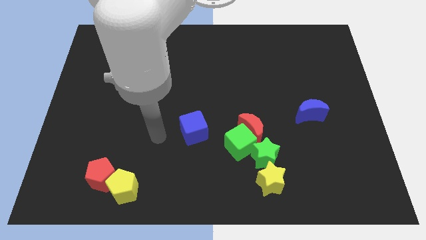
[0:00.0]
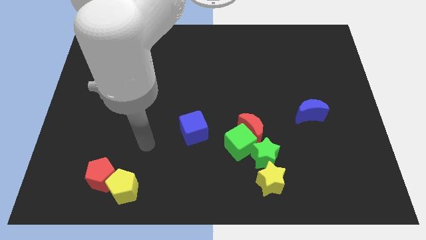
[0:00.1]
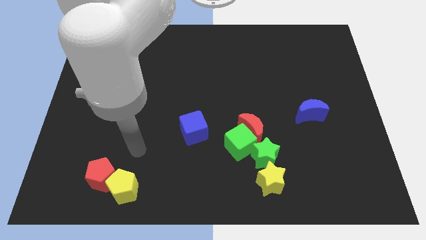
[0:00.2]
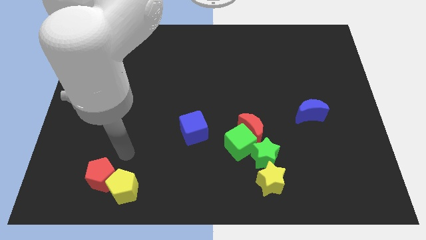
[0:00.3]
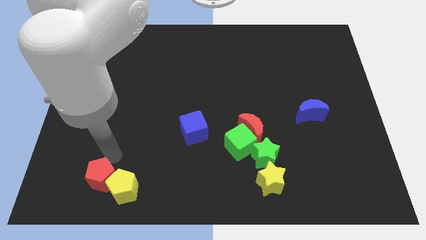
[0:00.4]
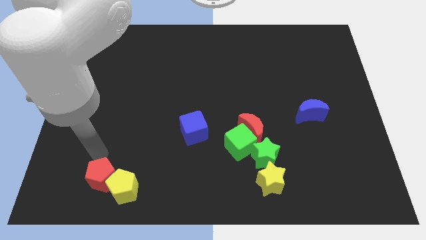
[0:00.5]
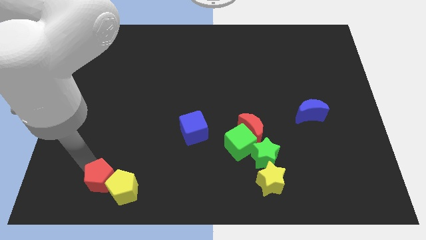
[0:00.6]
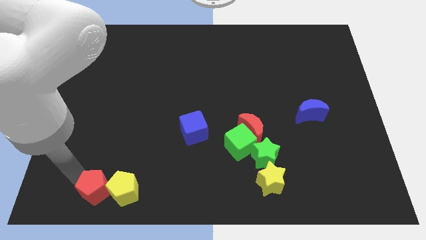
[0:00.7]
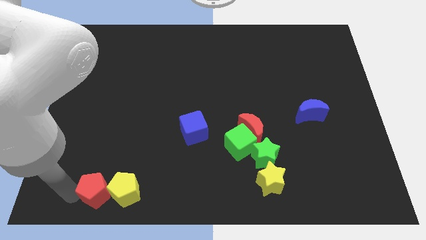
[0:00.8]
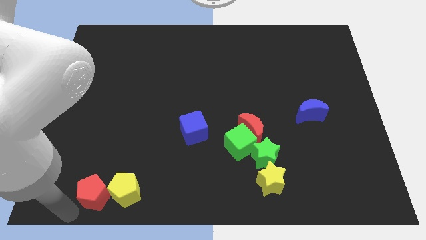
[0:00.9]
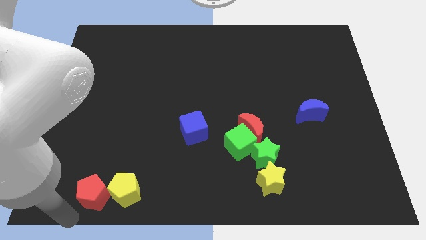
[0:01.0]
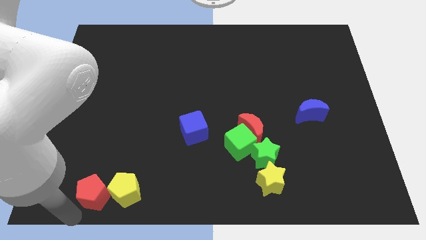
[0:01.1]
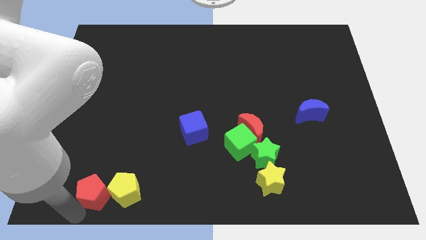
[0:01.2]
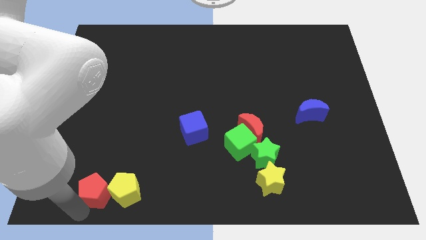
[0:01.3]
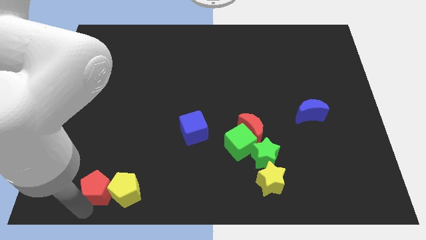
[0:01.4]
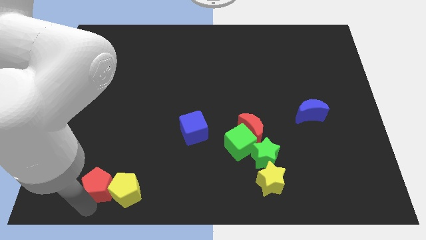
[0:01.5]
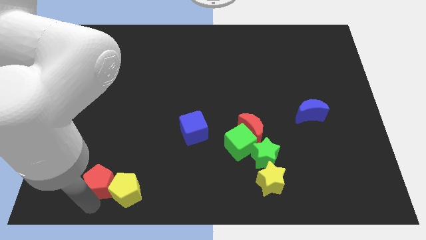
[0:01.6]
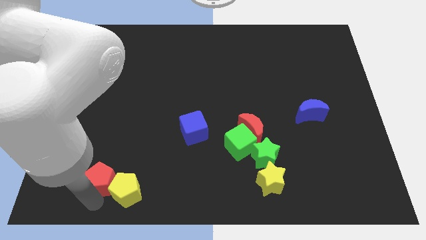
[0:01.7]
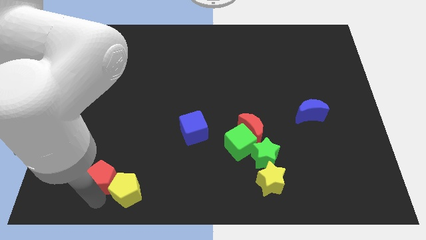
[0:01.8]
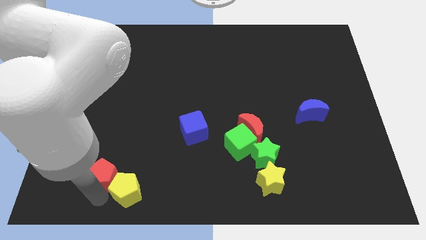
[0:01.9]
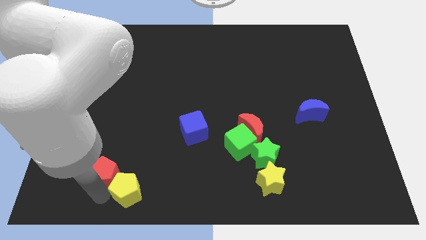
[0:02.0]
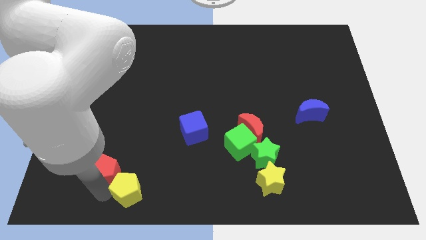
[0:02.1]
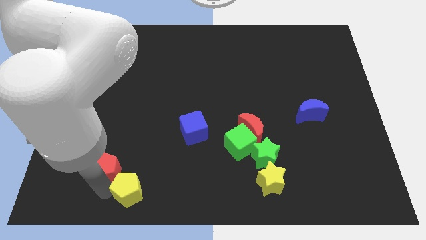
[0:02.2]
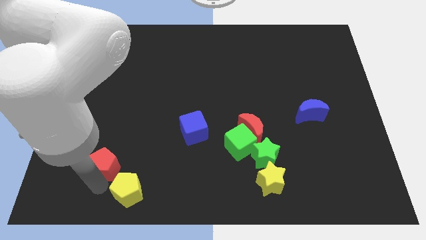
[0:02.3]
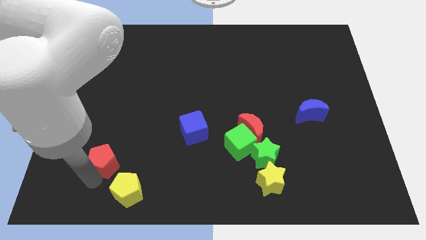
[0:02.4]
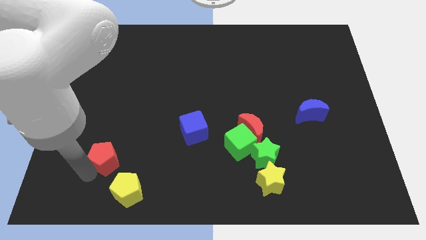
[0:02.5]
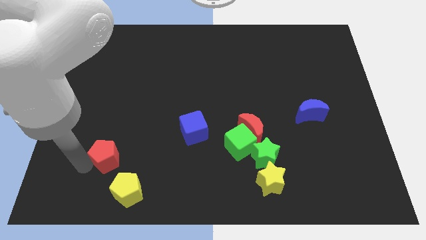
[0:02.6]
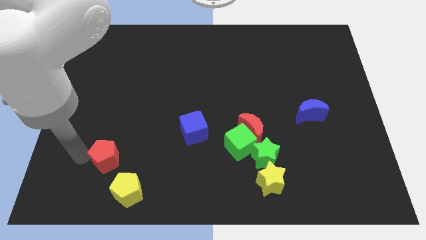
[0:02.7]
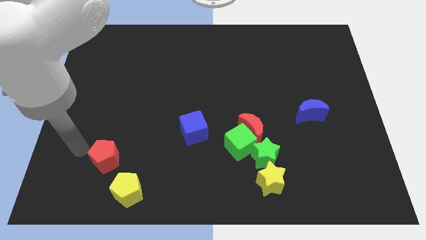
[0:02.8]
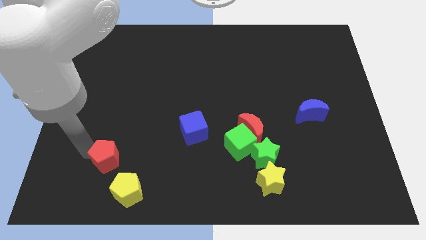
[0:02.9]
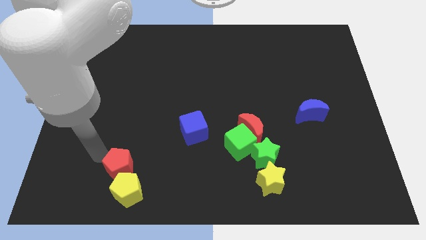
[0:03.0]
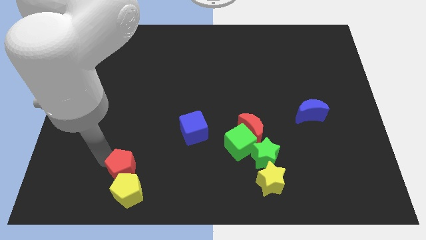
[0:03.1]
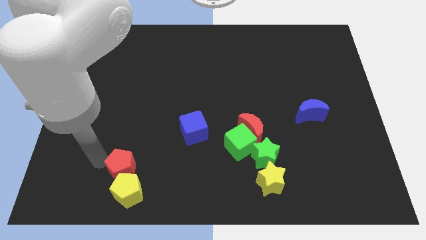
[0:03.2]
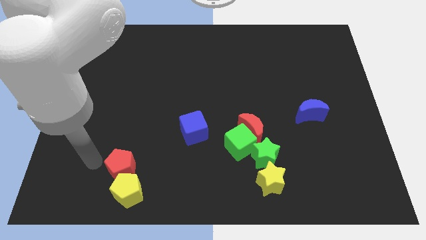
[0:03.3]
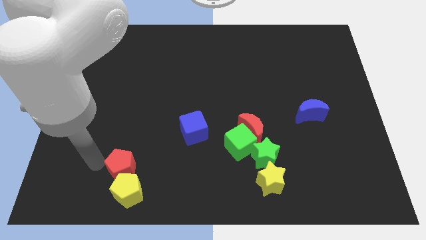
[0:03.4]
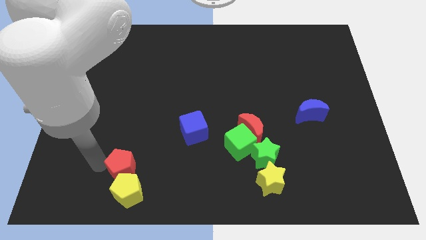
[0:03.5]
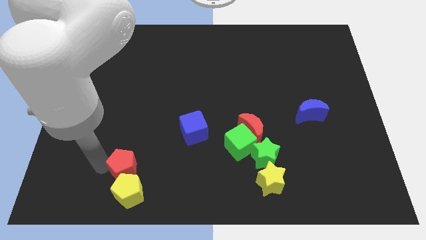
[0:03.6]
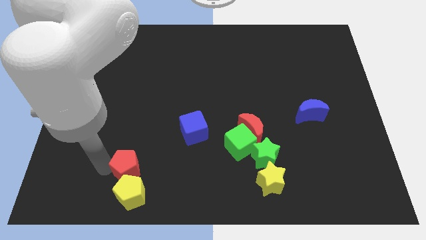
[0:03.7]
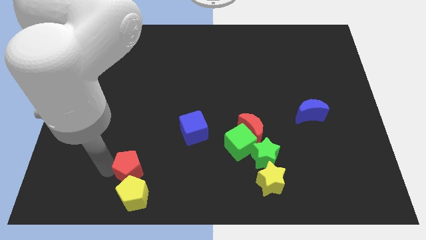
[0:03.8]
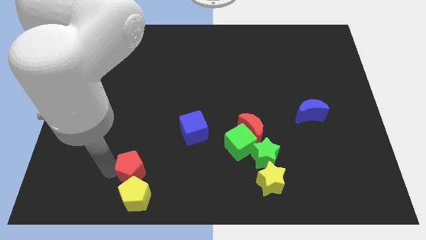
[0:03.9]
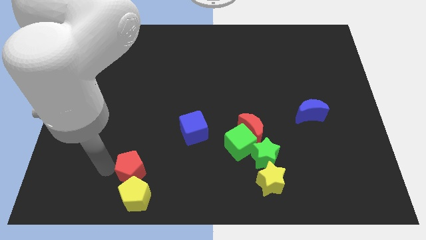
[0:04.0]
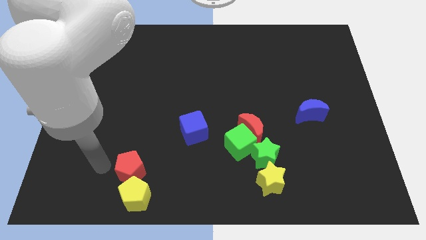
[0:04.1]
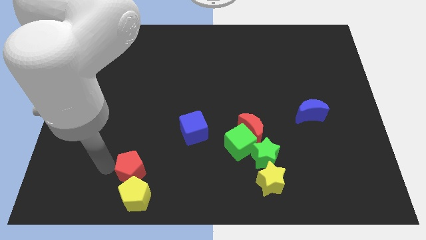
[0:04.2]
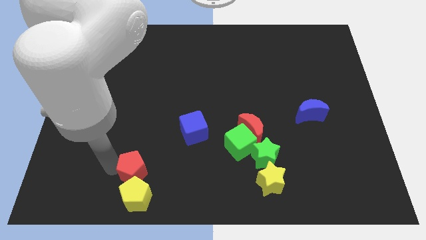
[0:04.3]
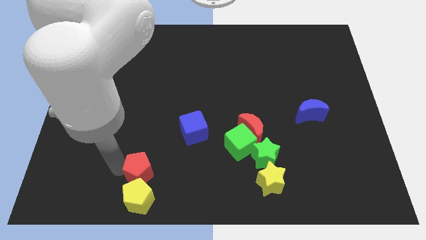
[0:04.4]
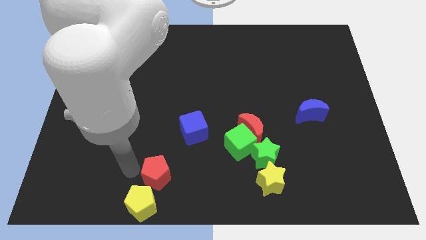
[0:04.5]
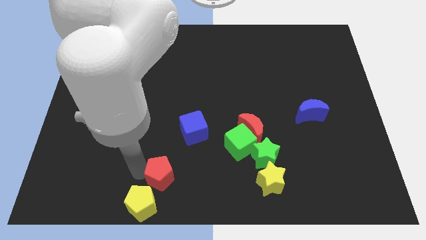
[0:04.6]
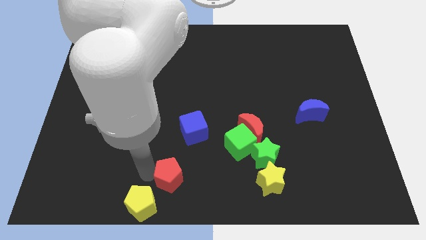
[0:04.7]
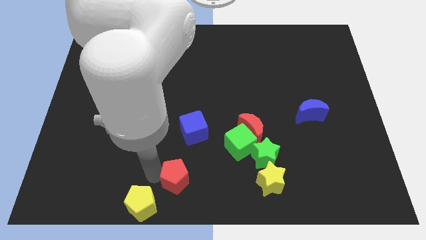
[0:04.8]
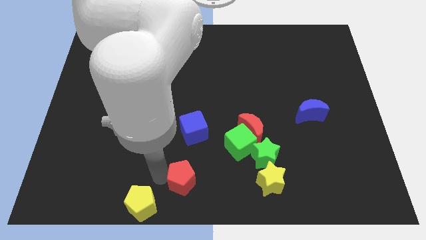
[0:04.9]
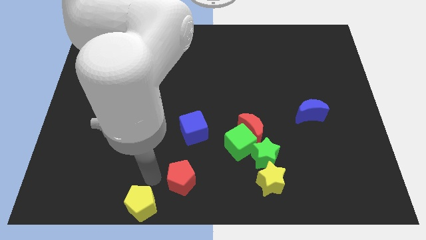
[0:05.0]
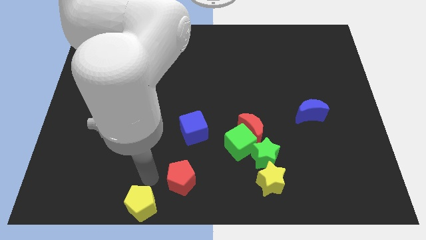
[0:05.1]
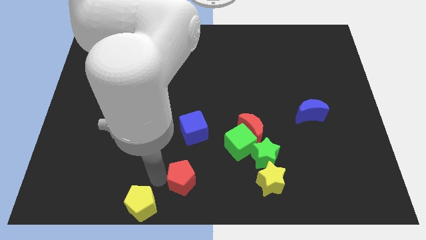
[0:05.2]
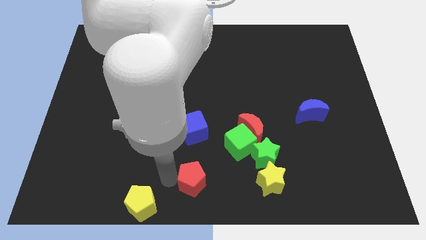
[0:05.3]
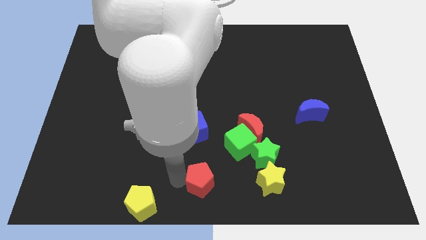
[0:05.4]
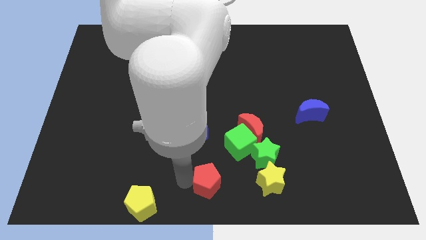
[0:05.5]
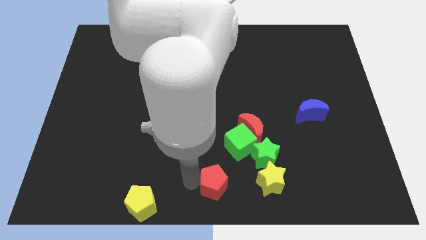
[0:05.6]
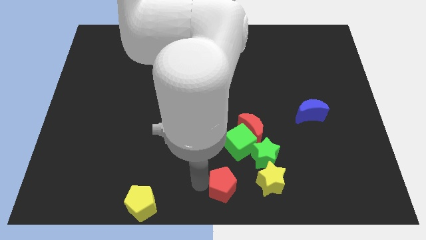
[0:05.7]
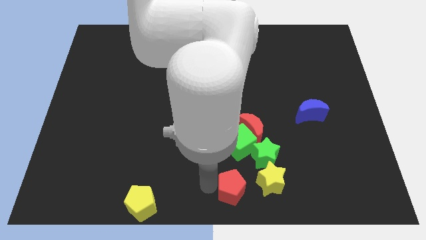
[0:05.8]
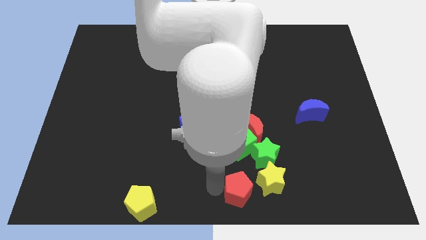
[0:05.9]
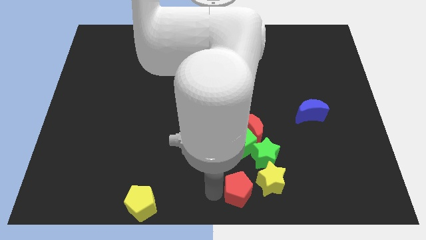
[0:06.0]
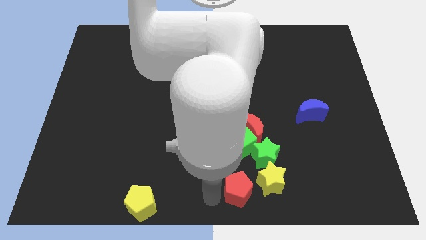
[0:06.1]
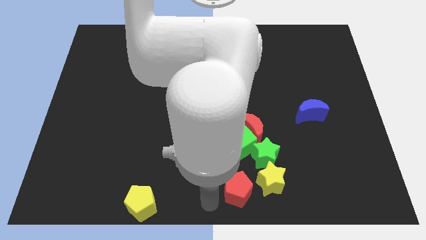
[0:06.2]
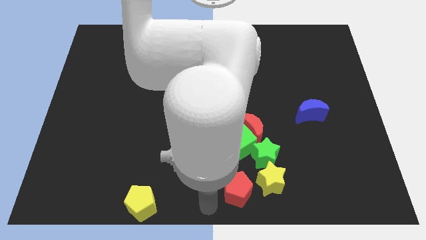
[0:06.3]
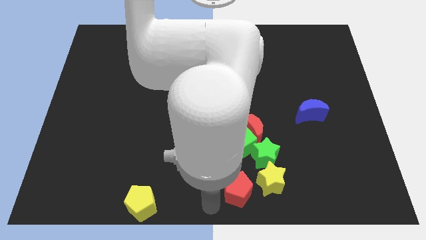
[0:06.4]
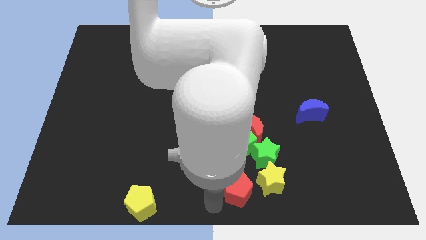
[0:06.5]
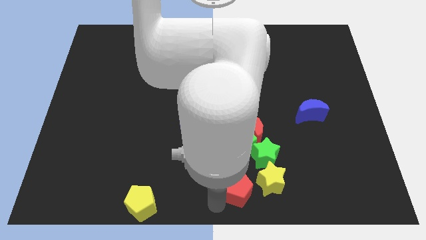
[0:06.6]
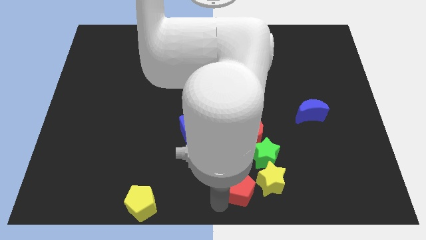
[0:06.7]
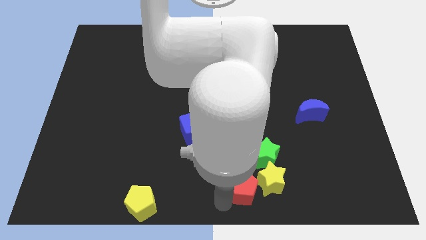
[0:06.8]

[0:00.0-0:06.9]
move the red pentagon next to the yellow star

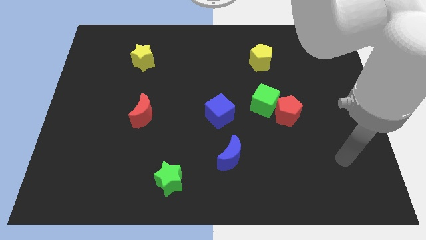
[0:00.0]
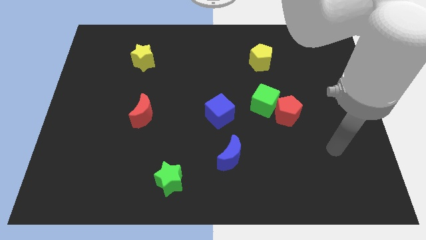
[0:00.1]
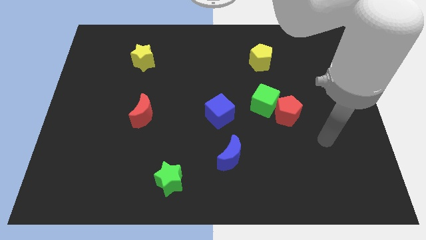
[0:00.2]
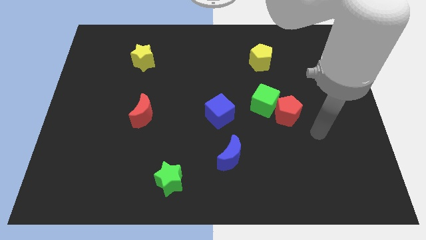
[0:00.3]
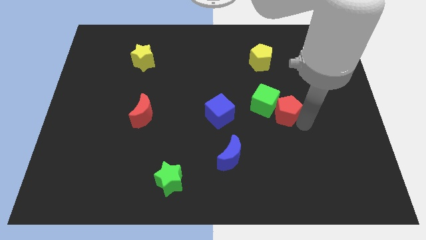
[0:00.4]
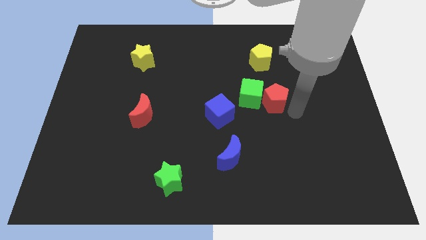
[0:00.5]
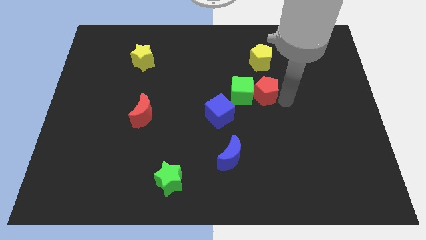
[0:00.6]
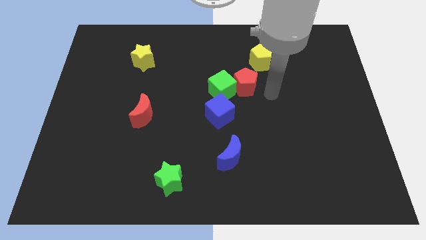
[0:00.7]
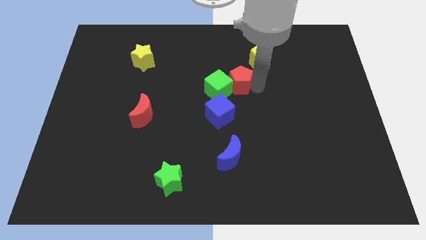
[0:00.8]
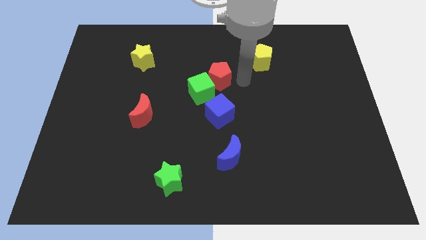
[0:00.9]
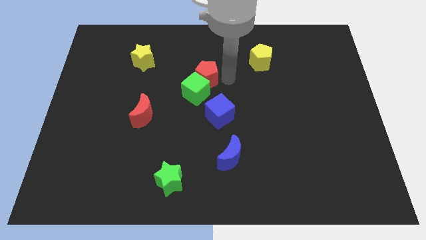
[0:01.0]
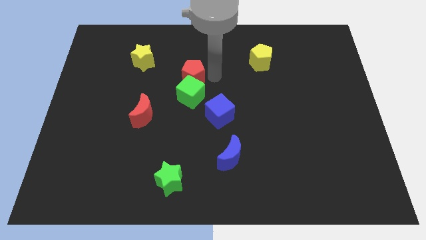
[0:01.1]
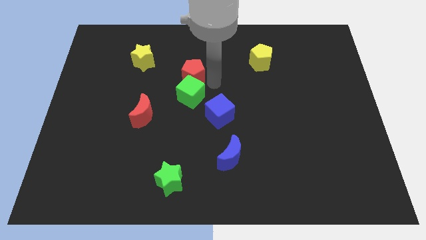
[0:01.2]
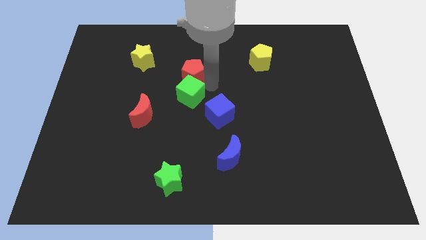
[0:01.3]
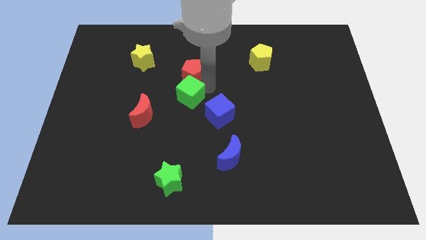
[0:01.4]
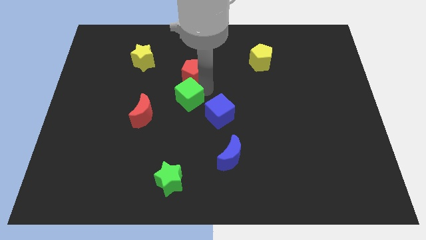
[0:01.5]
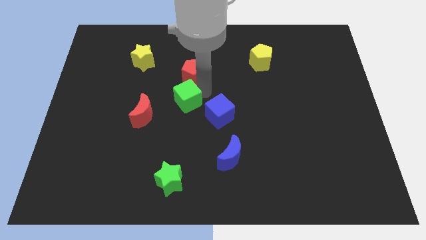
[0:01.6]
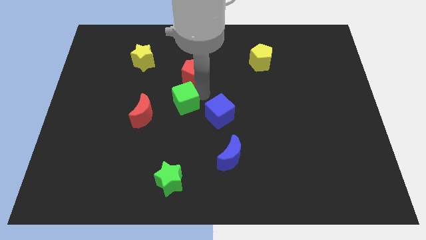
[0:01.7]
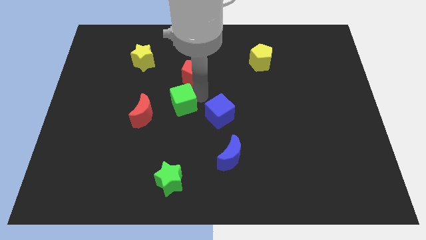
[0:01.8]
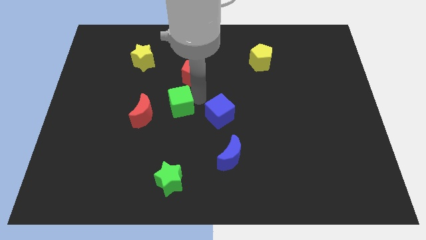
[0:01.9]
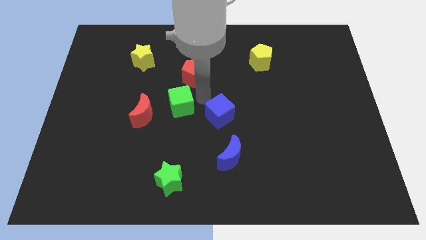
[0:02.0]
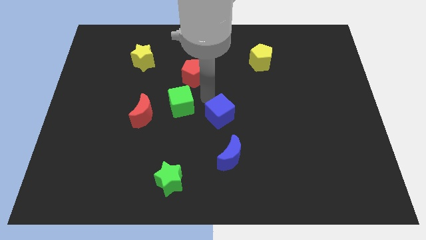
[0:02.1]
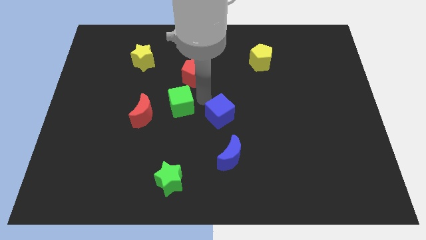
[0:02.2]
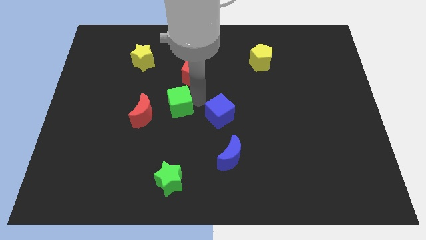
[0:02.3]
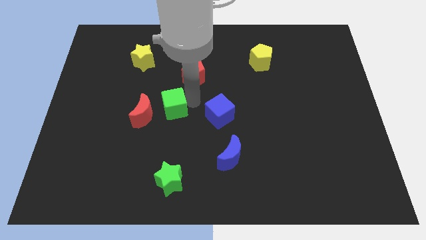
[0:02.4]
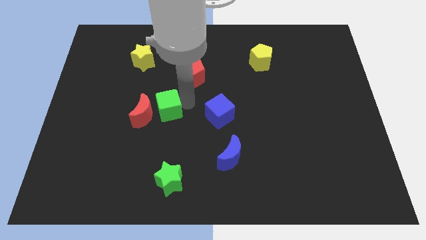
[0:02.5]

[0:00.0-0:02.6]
push the green cube close to the red moon
